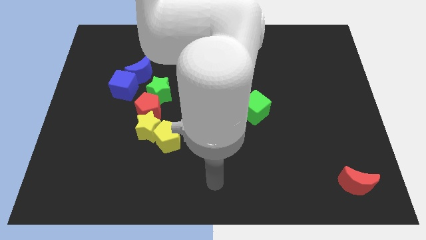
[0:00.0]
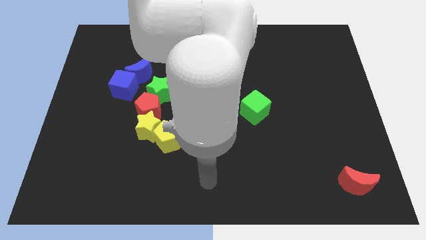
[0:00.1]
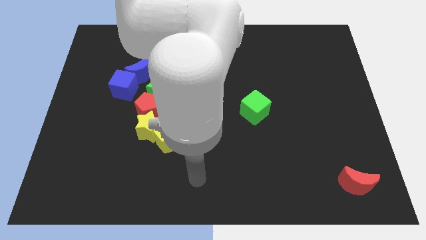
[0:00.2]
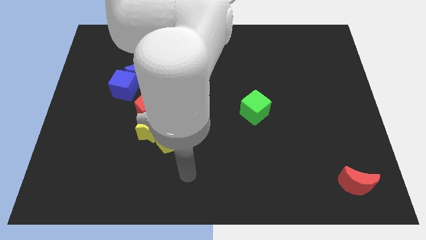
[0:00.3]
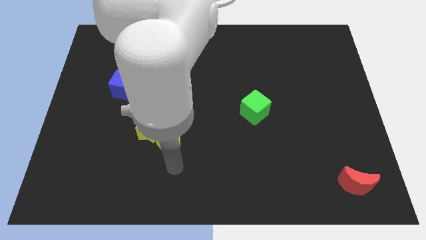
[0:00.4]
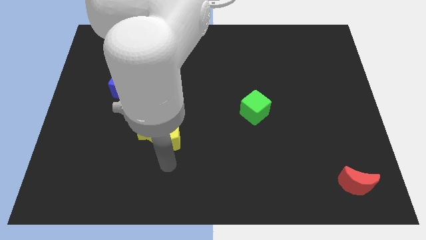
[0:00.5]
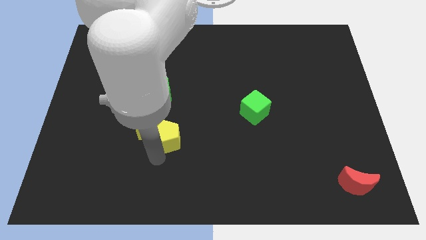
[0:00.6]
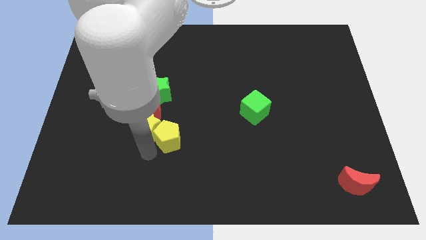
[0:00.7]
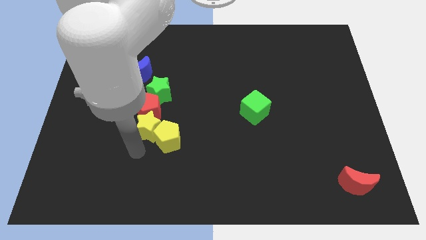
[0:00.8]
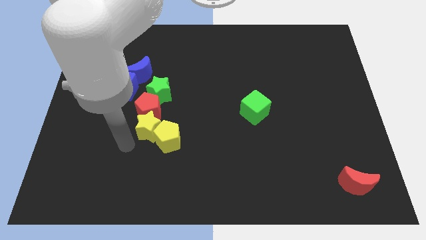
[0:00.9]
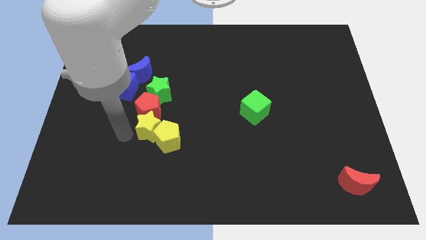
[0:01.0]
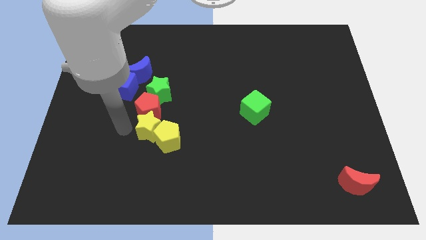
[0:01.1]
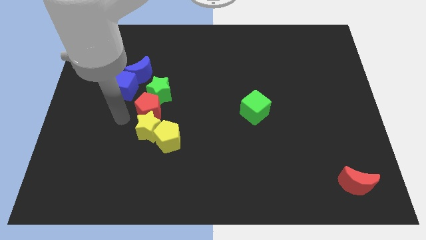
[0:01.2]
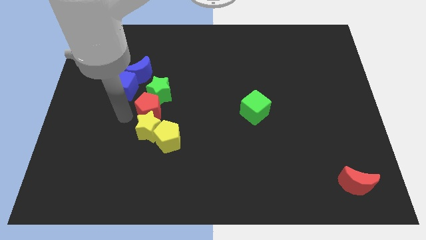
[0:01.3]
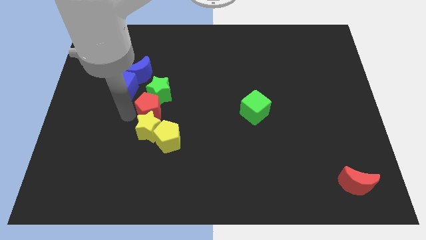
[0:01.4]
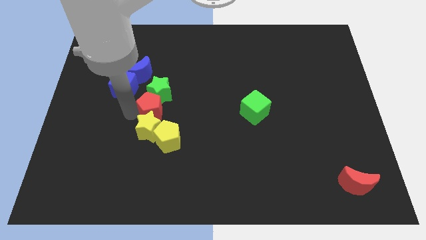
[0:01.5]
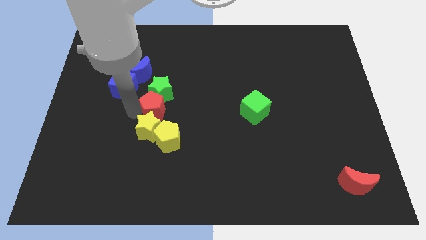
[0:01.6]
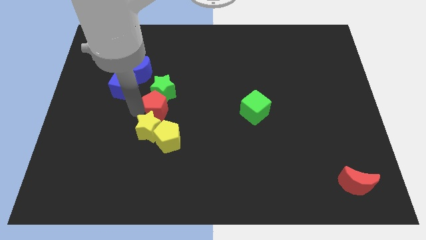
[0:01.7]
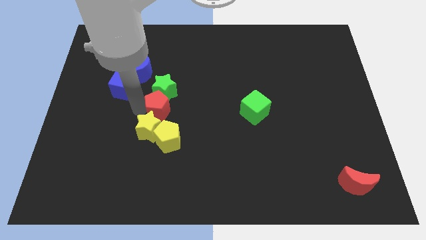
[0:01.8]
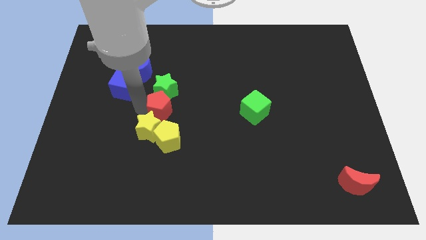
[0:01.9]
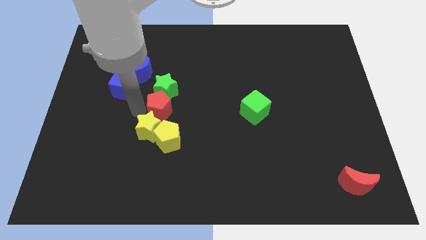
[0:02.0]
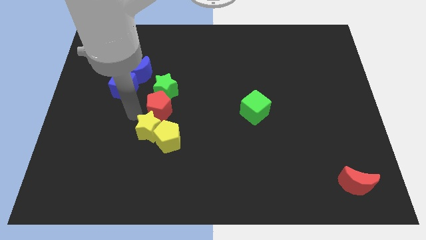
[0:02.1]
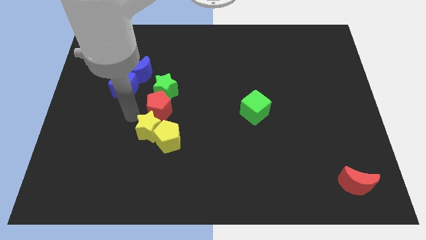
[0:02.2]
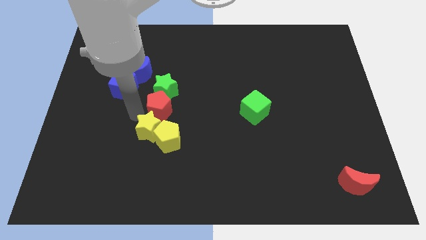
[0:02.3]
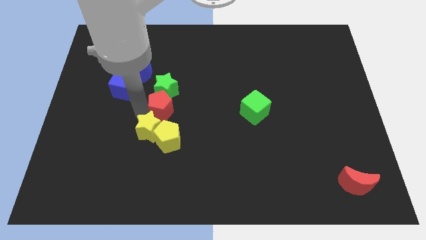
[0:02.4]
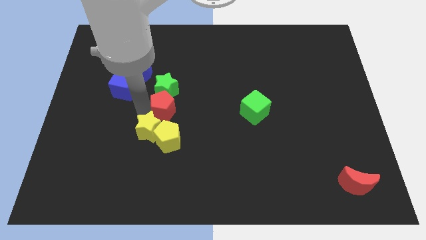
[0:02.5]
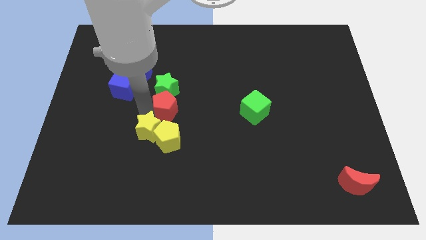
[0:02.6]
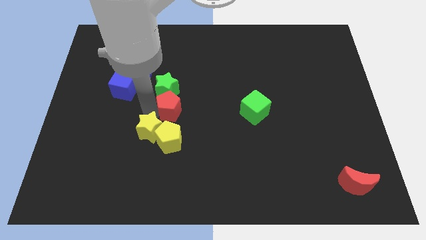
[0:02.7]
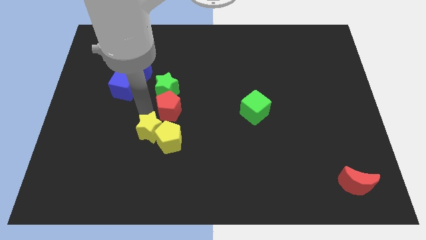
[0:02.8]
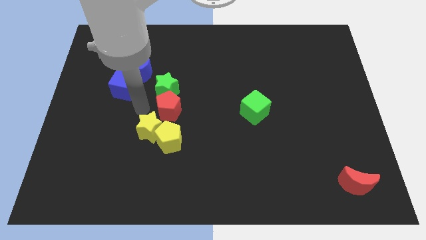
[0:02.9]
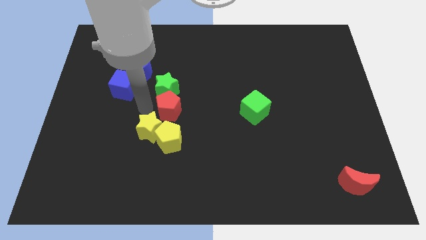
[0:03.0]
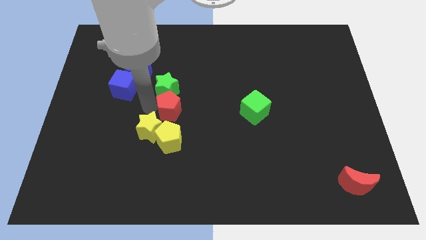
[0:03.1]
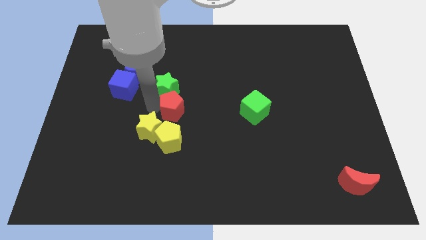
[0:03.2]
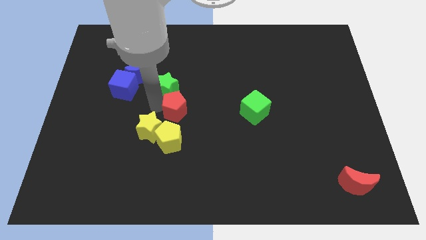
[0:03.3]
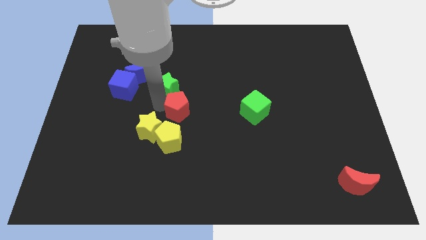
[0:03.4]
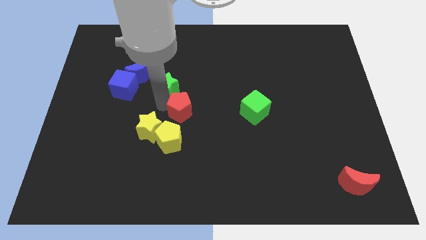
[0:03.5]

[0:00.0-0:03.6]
move the red pentagon slightly to the right

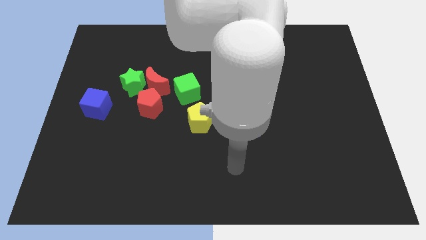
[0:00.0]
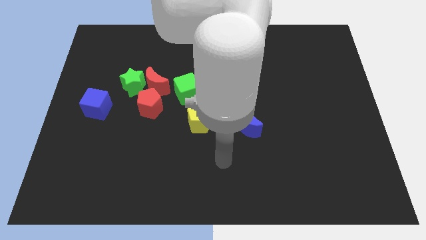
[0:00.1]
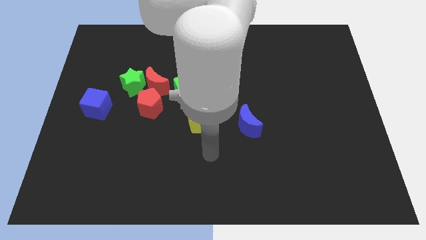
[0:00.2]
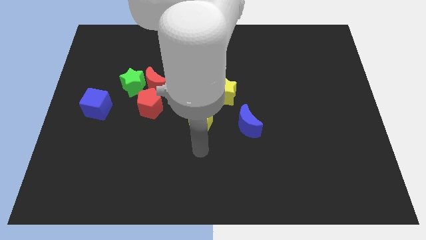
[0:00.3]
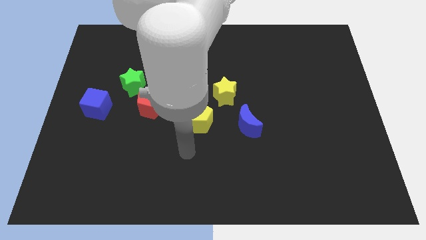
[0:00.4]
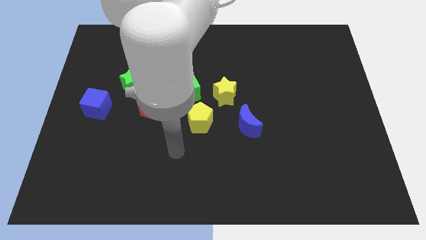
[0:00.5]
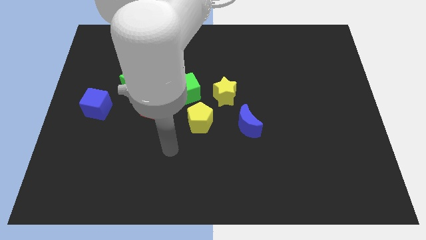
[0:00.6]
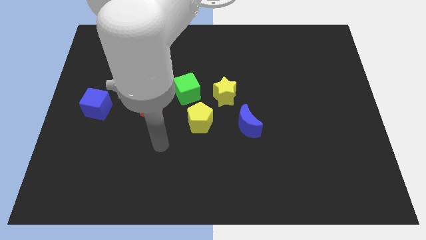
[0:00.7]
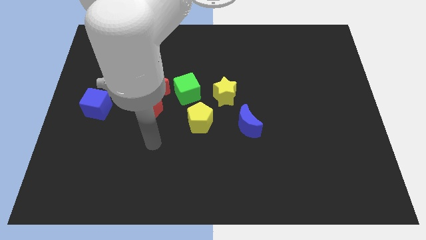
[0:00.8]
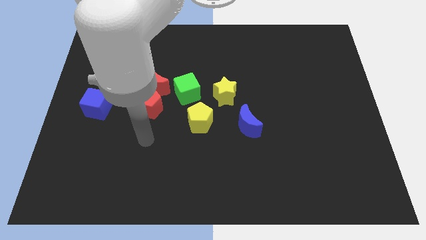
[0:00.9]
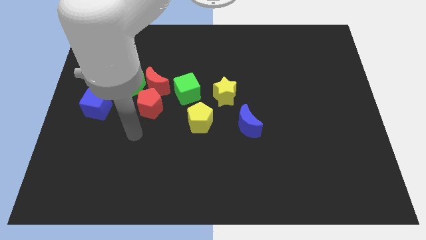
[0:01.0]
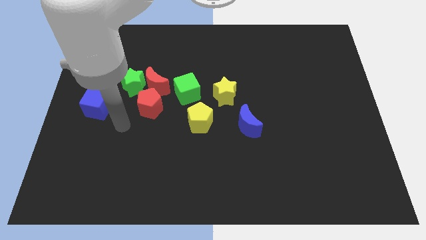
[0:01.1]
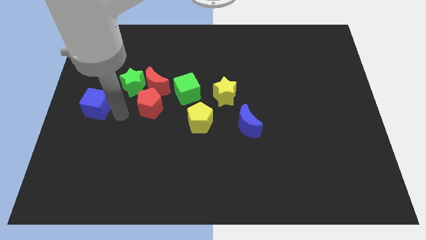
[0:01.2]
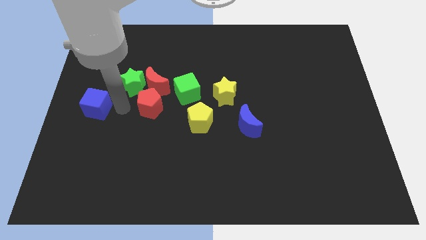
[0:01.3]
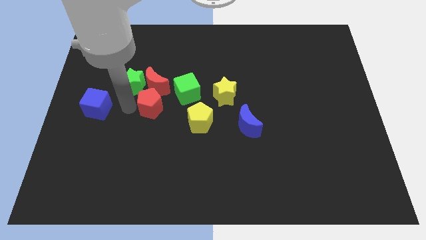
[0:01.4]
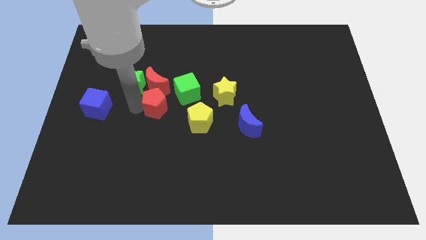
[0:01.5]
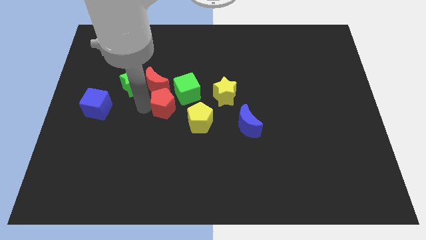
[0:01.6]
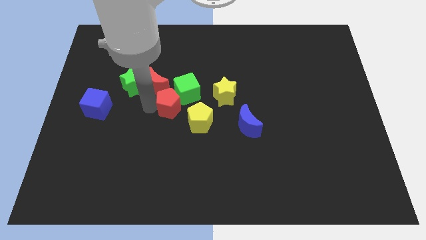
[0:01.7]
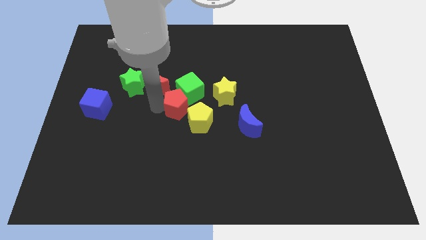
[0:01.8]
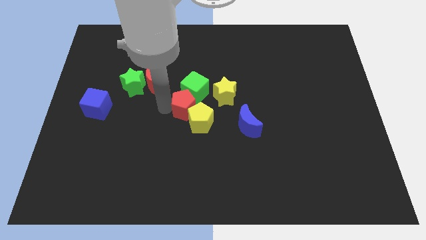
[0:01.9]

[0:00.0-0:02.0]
slightly slide the red pentagon to the right

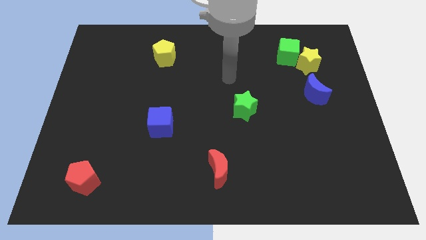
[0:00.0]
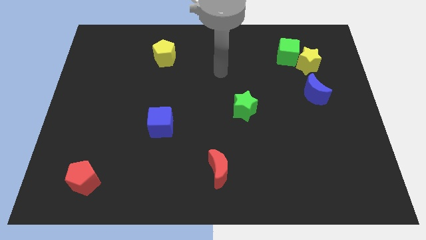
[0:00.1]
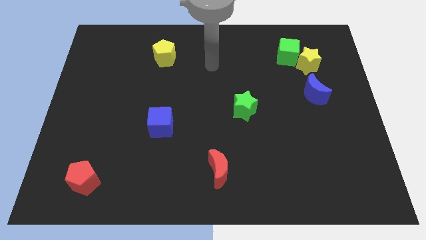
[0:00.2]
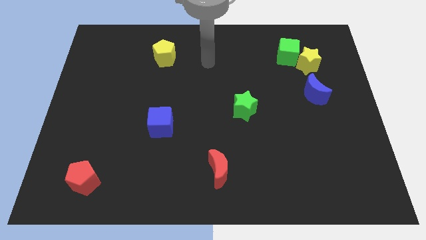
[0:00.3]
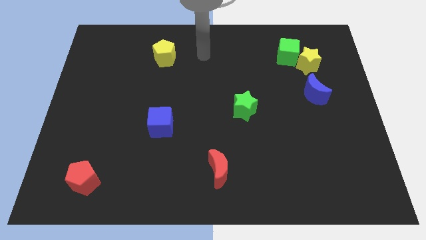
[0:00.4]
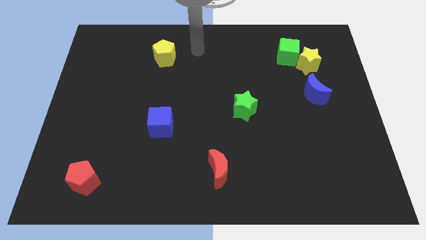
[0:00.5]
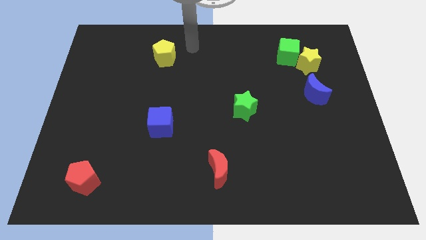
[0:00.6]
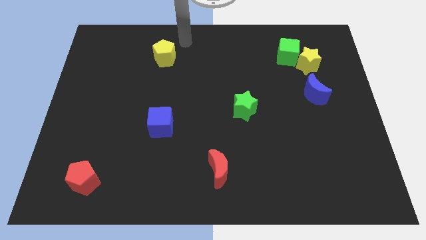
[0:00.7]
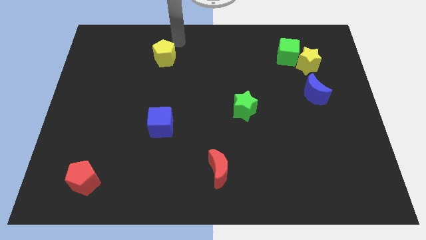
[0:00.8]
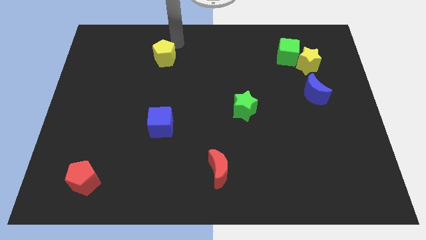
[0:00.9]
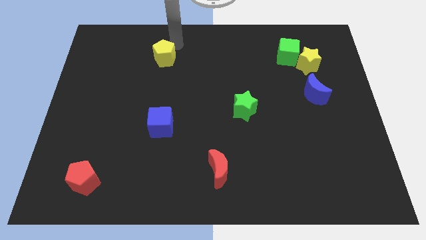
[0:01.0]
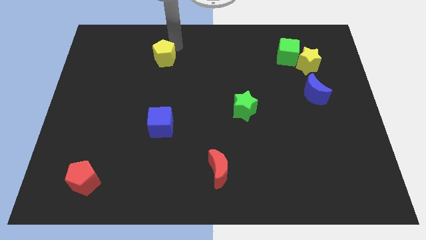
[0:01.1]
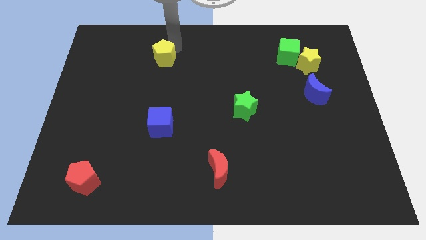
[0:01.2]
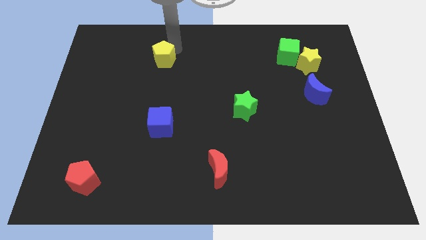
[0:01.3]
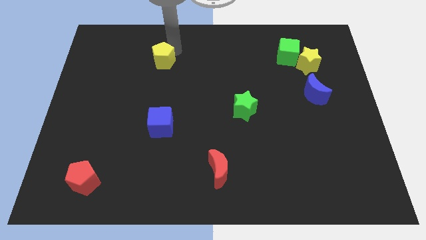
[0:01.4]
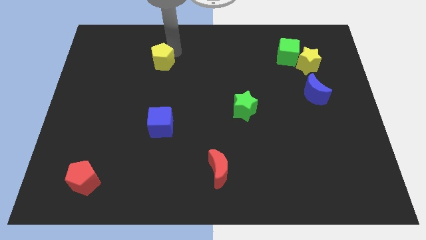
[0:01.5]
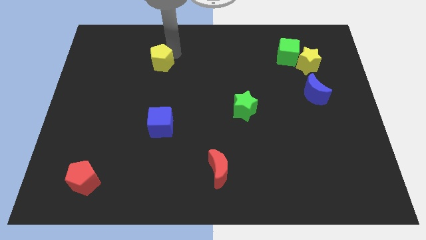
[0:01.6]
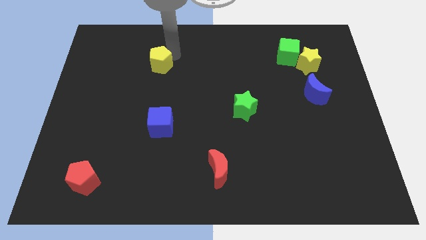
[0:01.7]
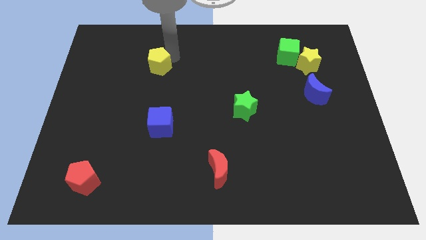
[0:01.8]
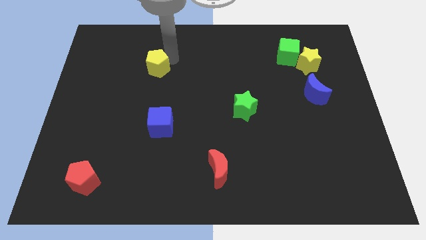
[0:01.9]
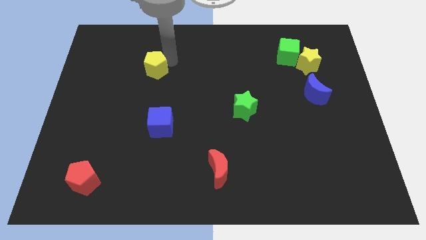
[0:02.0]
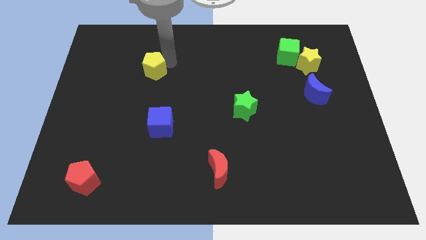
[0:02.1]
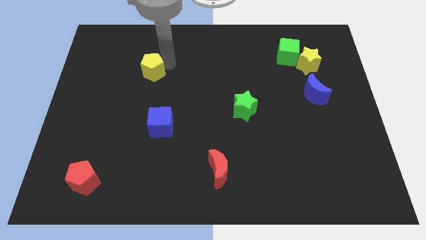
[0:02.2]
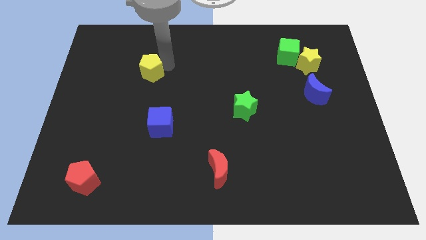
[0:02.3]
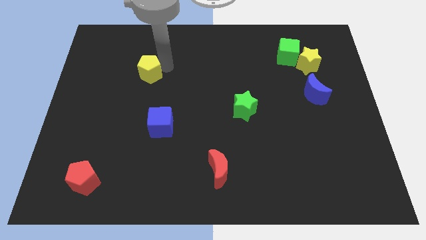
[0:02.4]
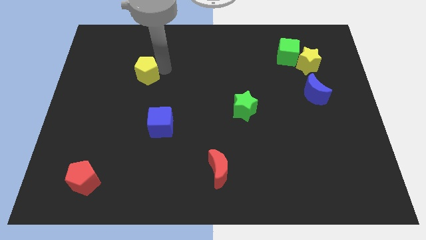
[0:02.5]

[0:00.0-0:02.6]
push the yellow pentagon downwards and left a little
